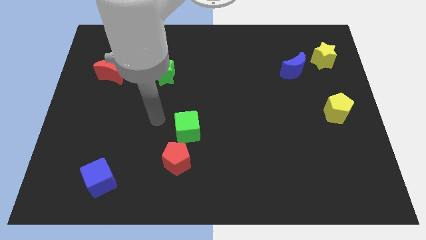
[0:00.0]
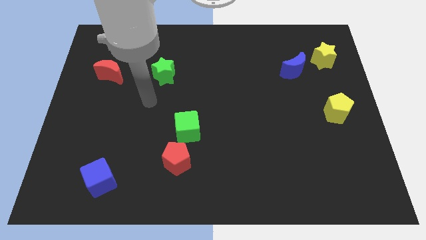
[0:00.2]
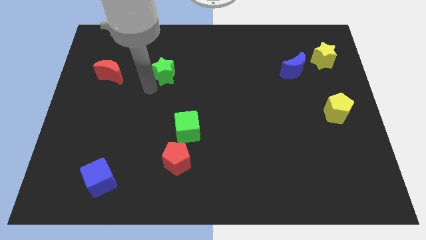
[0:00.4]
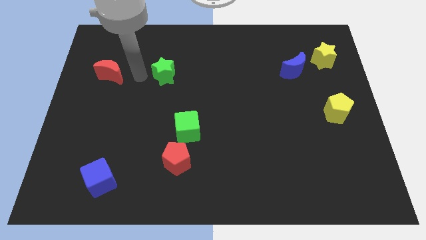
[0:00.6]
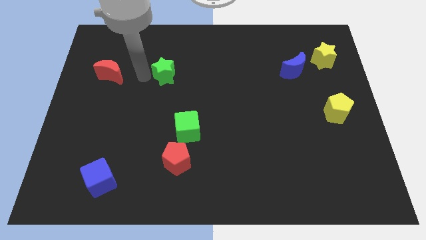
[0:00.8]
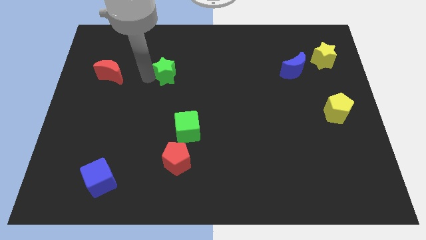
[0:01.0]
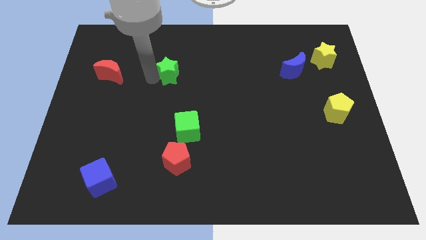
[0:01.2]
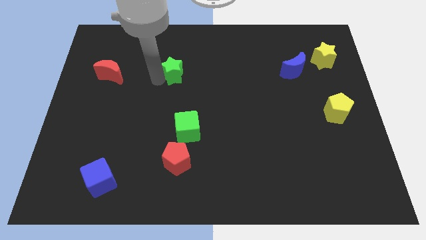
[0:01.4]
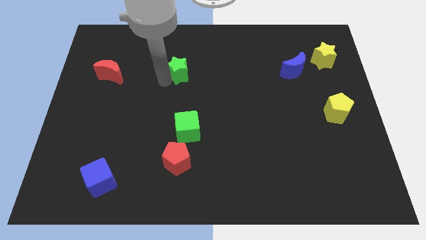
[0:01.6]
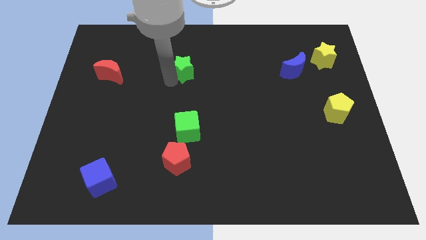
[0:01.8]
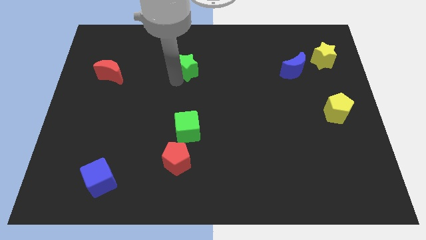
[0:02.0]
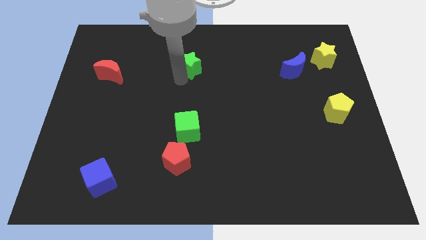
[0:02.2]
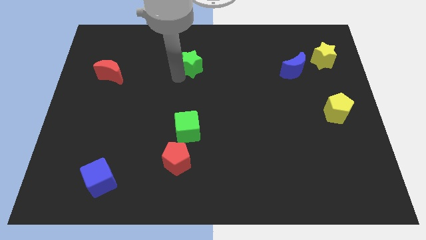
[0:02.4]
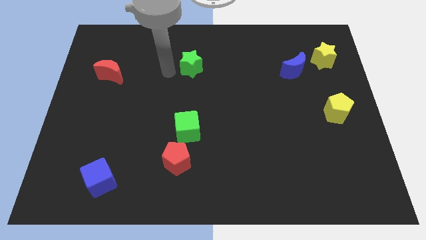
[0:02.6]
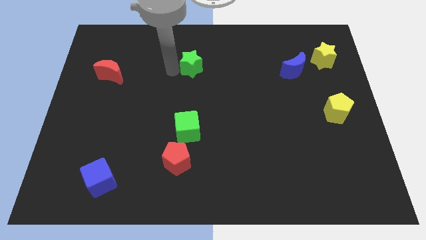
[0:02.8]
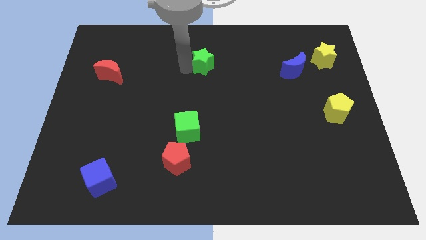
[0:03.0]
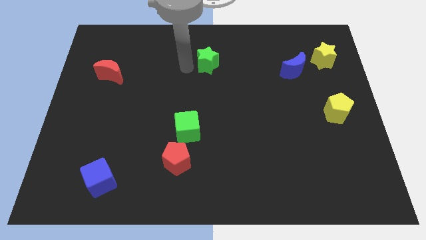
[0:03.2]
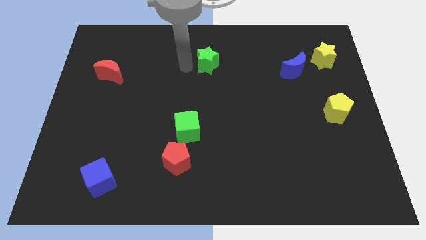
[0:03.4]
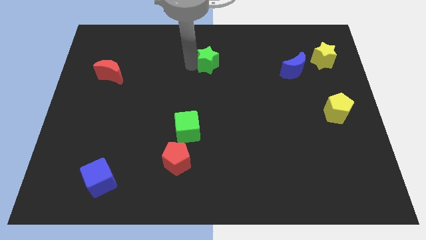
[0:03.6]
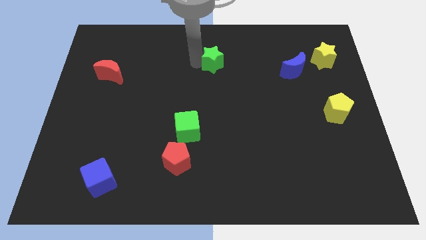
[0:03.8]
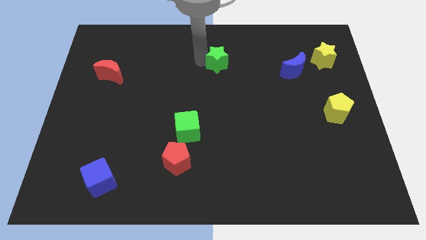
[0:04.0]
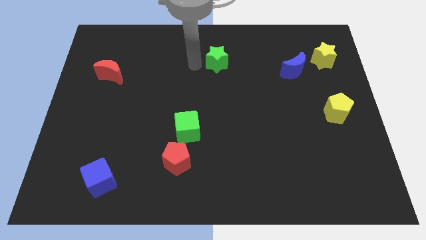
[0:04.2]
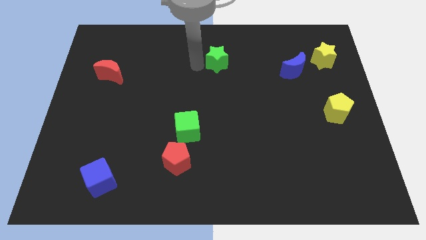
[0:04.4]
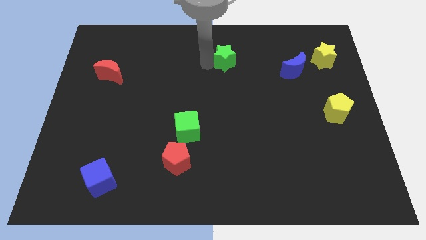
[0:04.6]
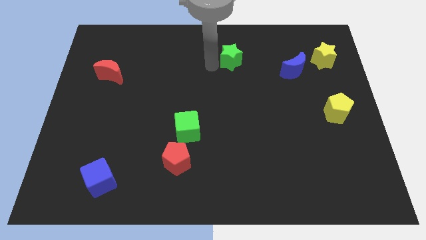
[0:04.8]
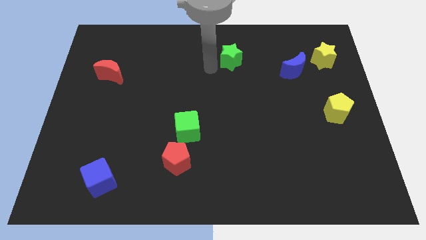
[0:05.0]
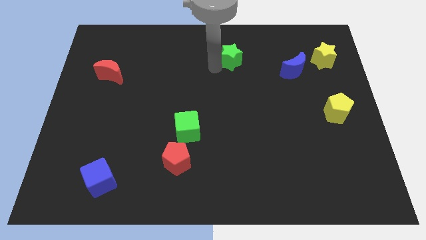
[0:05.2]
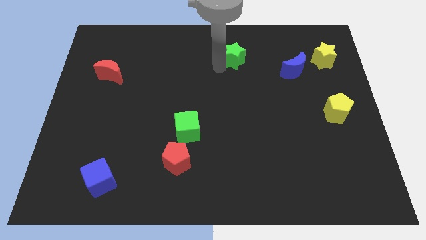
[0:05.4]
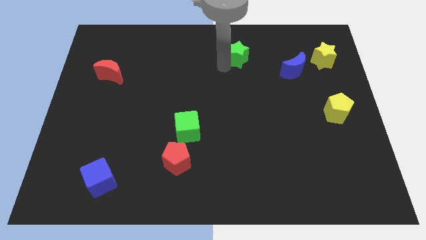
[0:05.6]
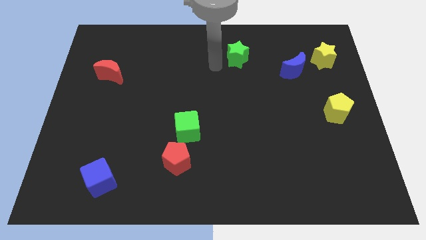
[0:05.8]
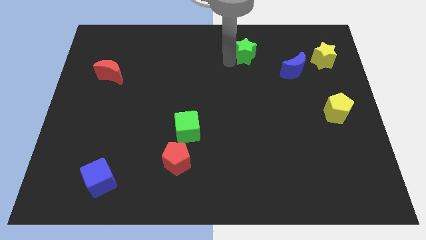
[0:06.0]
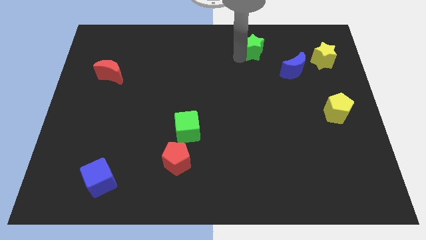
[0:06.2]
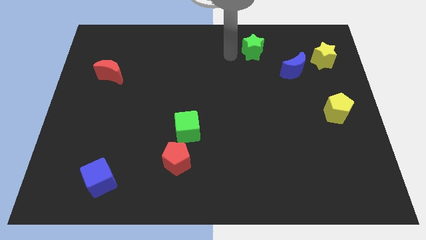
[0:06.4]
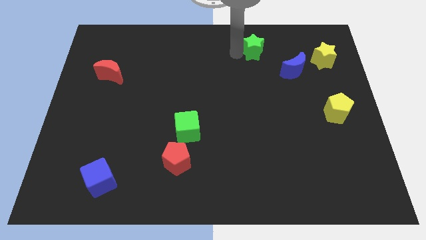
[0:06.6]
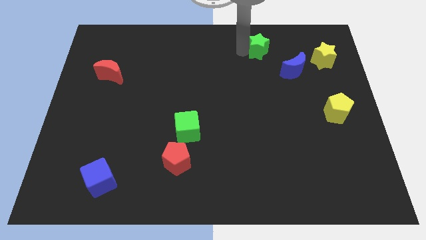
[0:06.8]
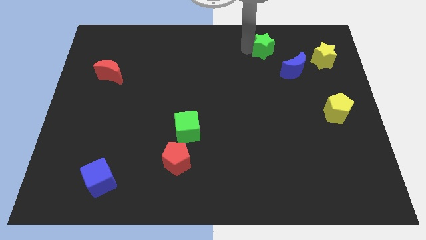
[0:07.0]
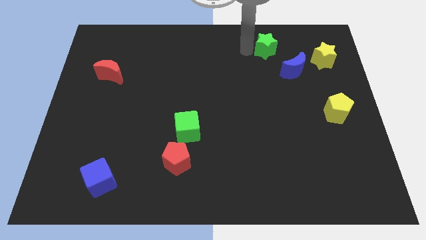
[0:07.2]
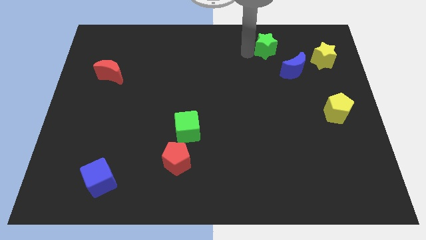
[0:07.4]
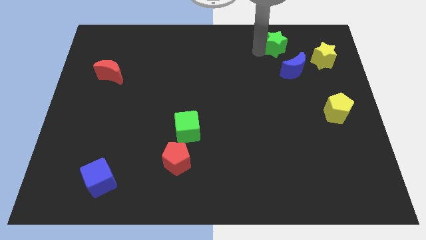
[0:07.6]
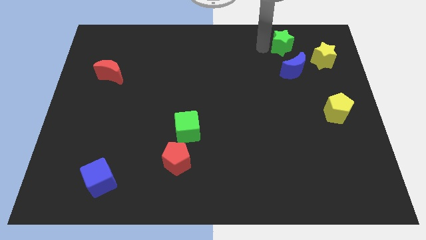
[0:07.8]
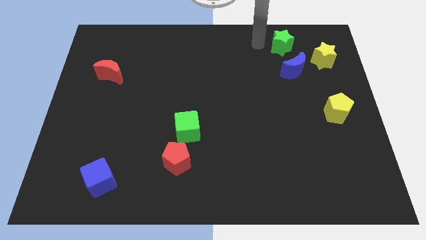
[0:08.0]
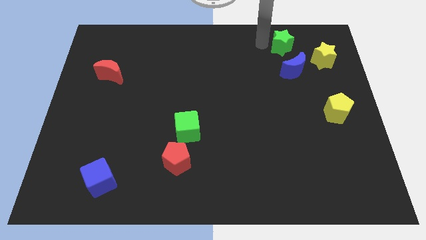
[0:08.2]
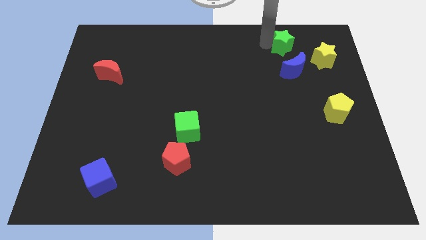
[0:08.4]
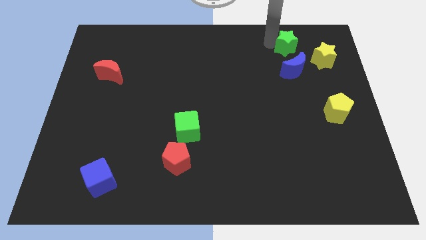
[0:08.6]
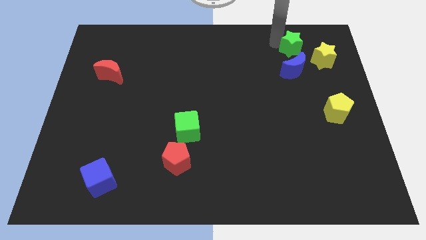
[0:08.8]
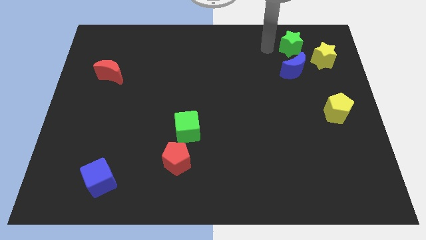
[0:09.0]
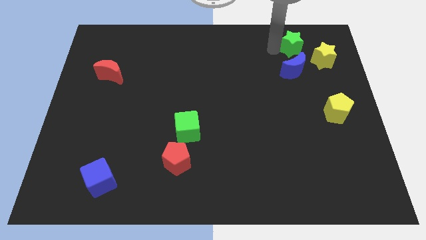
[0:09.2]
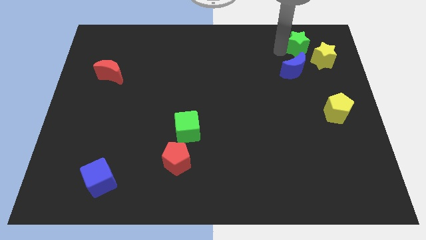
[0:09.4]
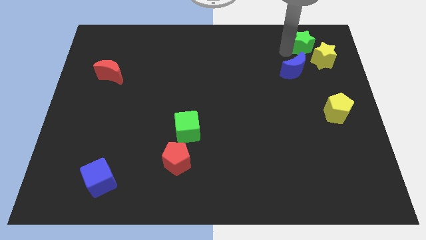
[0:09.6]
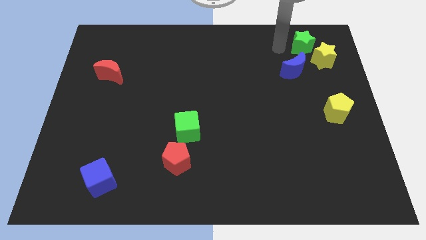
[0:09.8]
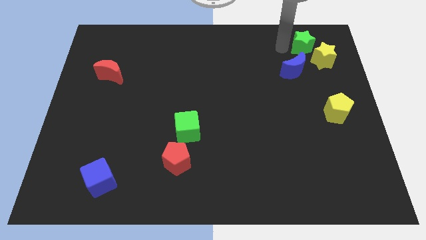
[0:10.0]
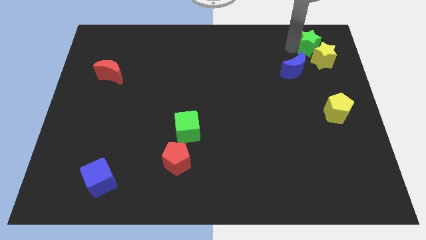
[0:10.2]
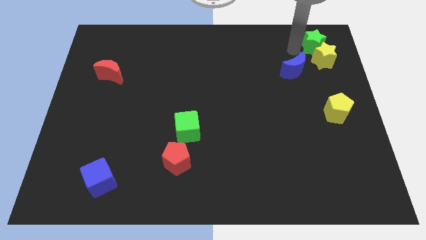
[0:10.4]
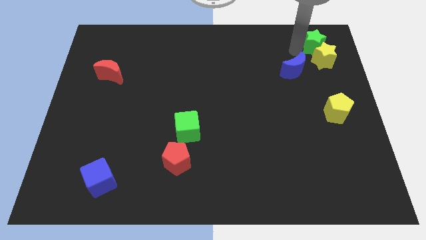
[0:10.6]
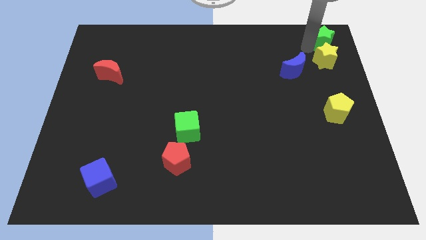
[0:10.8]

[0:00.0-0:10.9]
put the green star to the upper right corner

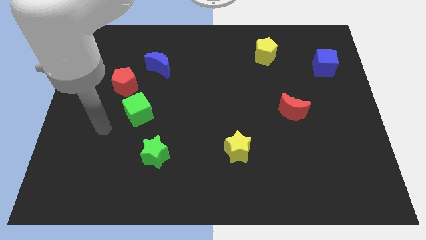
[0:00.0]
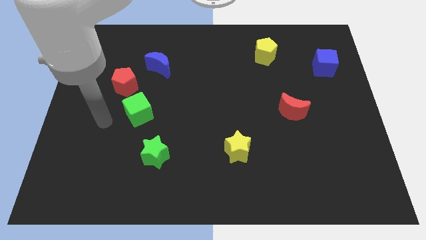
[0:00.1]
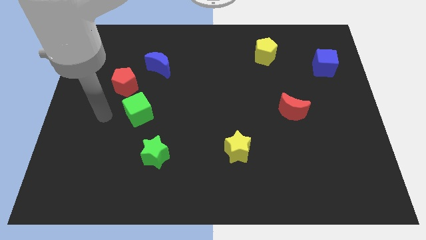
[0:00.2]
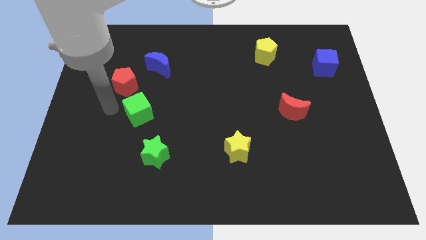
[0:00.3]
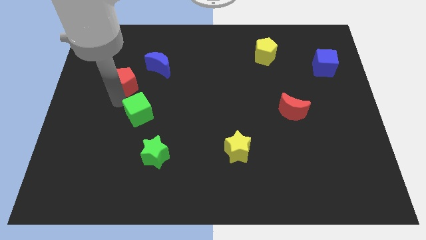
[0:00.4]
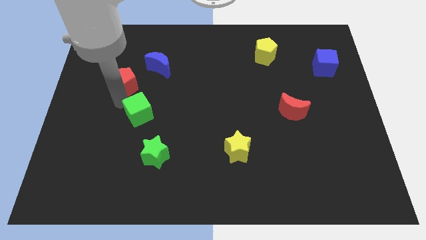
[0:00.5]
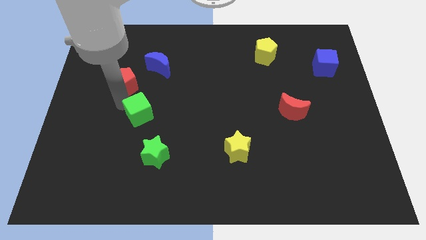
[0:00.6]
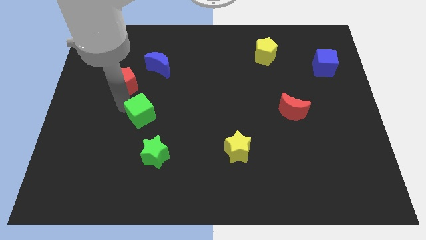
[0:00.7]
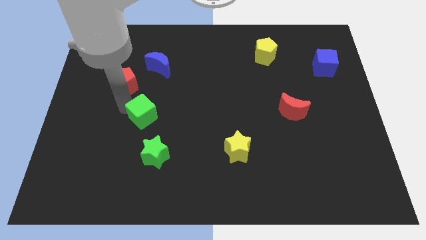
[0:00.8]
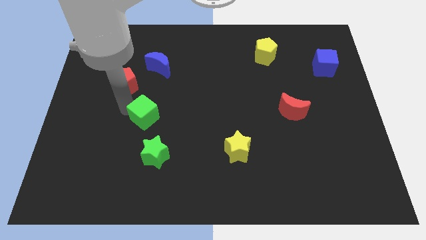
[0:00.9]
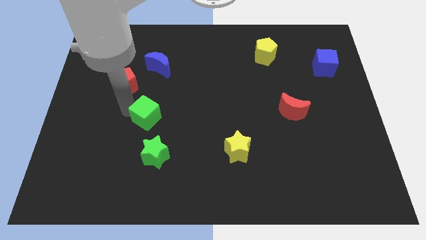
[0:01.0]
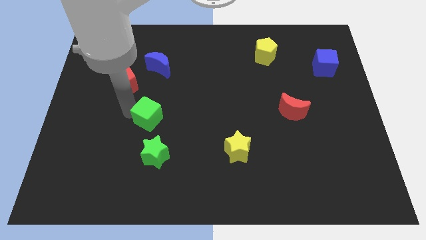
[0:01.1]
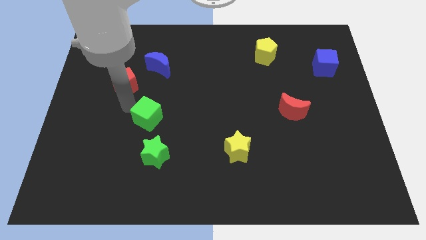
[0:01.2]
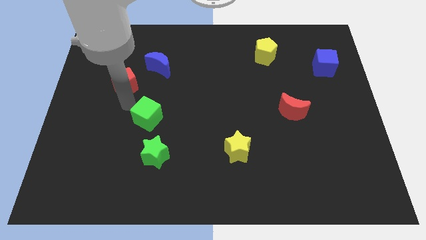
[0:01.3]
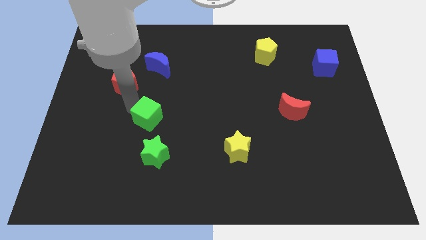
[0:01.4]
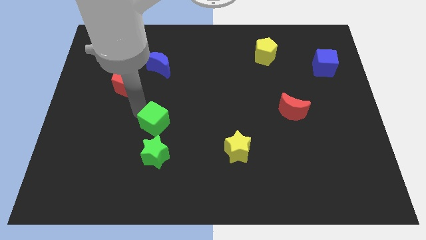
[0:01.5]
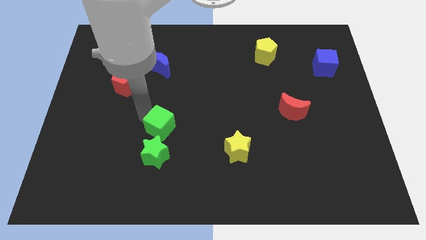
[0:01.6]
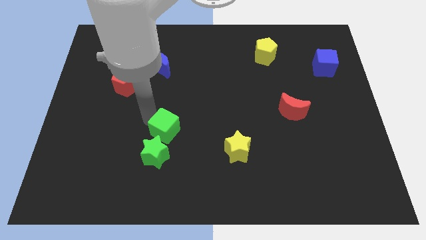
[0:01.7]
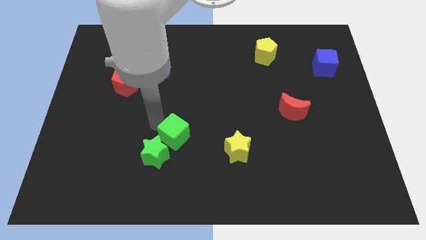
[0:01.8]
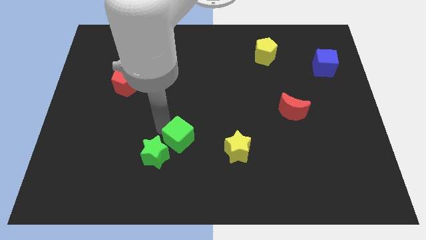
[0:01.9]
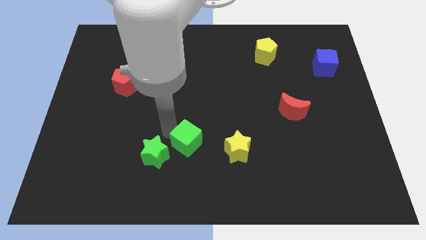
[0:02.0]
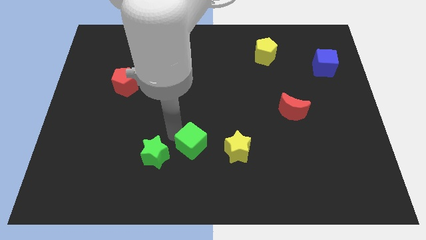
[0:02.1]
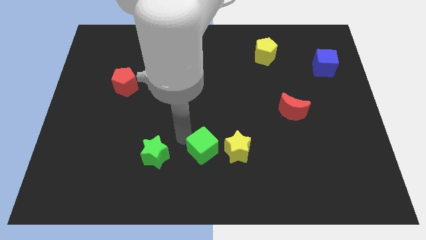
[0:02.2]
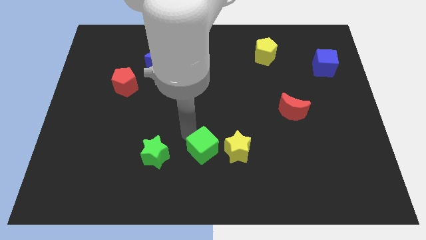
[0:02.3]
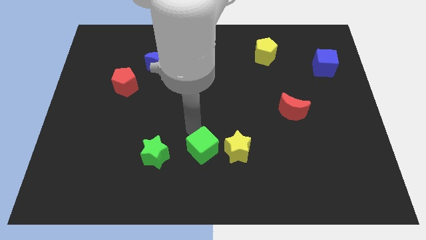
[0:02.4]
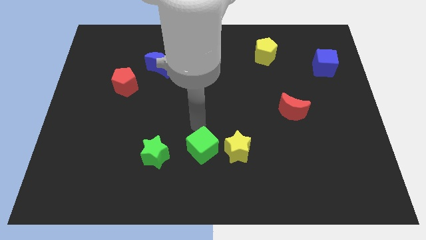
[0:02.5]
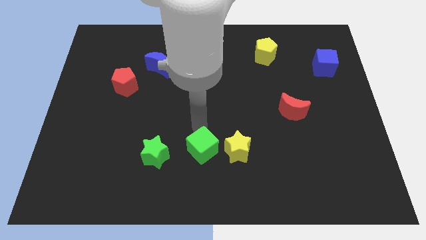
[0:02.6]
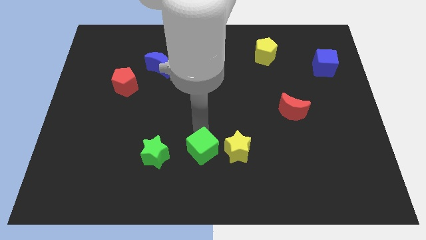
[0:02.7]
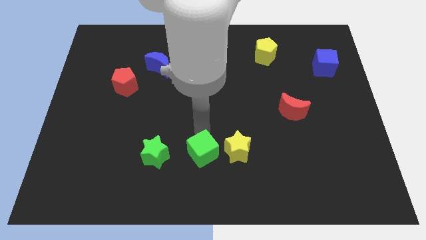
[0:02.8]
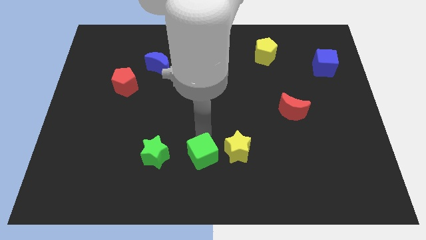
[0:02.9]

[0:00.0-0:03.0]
slide the green cube to the bottom
